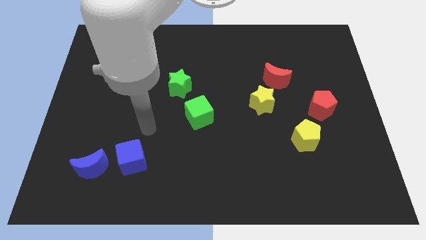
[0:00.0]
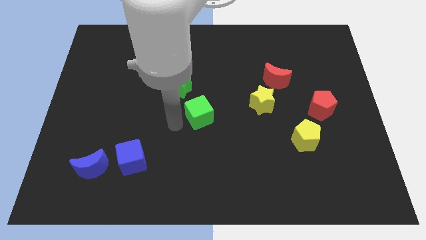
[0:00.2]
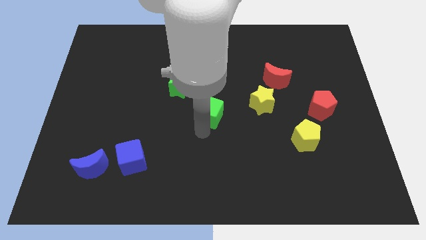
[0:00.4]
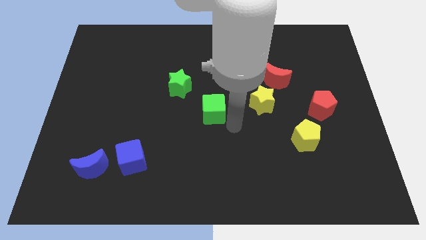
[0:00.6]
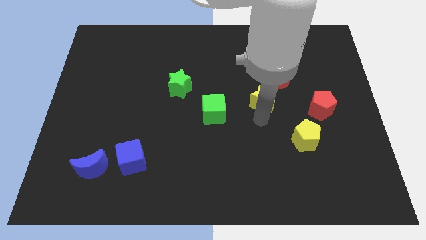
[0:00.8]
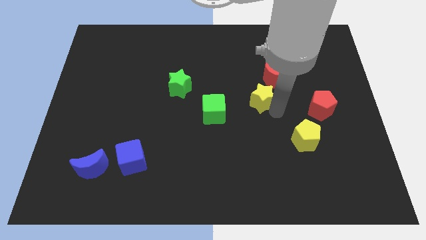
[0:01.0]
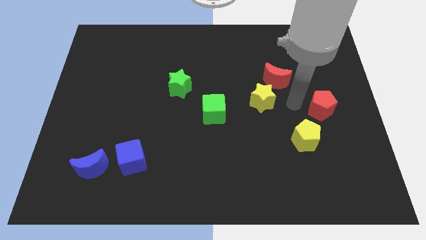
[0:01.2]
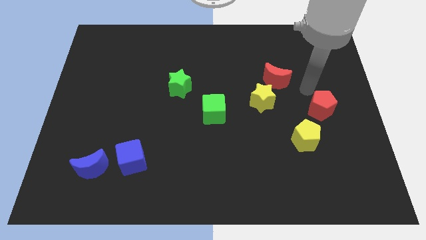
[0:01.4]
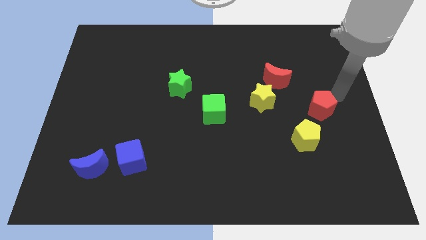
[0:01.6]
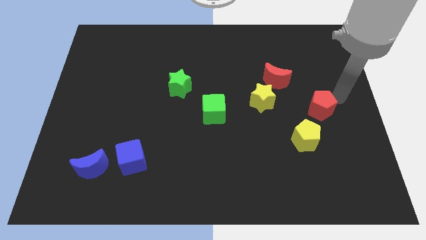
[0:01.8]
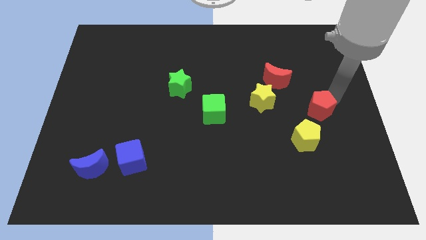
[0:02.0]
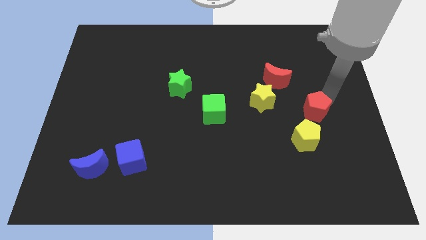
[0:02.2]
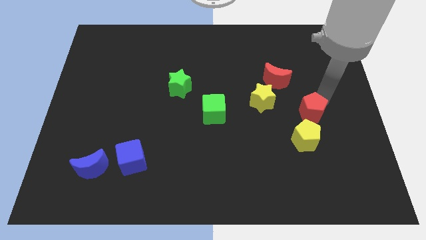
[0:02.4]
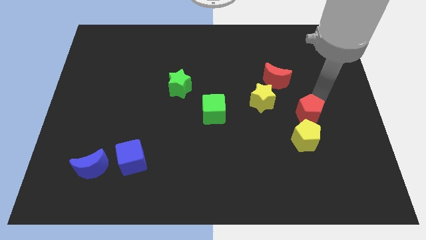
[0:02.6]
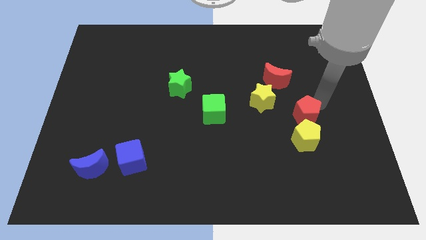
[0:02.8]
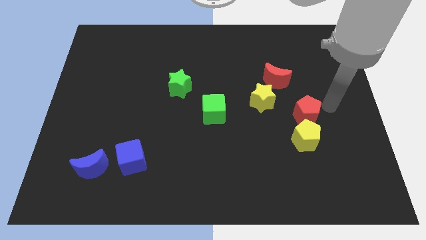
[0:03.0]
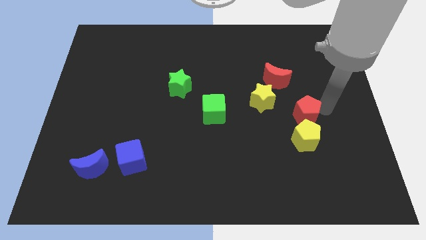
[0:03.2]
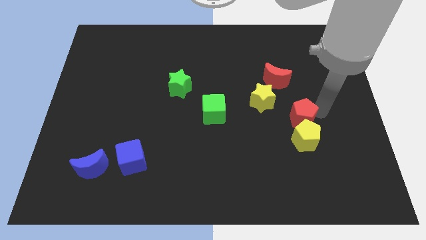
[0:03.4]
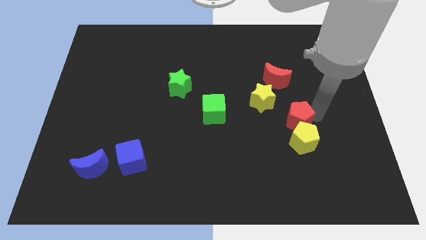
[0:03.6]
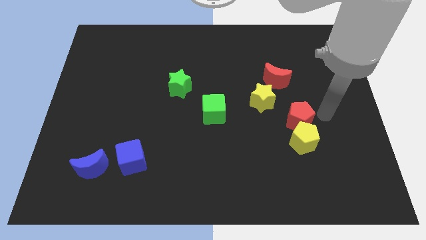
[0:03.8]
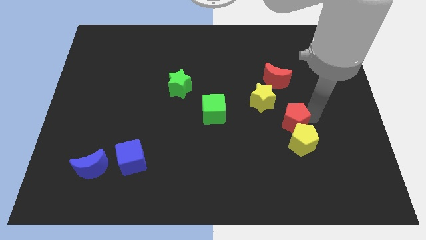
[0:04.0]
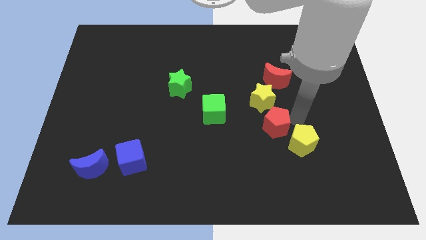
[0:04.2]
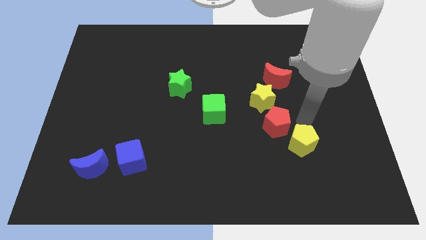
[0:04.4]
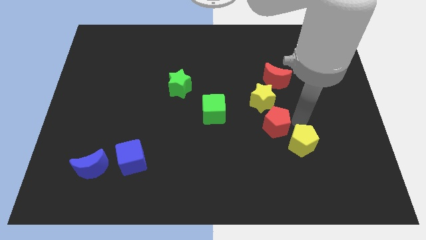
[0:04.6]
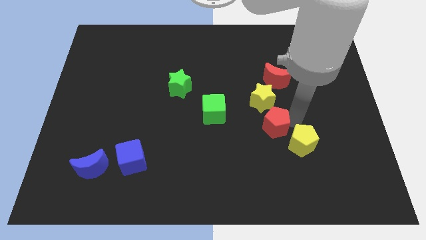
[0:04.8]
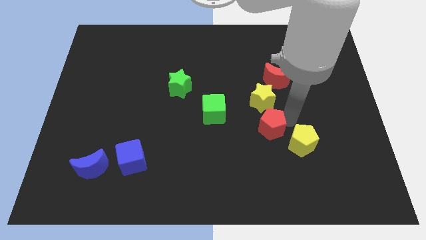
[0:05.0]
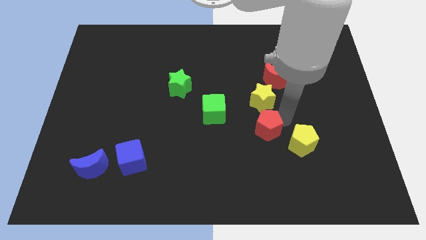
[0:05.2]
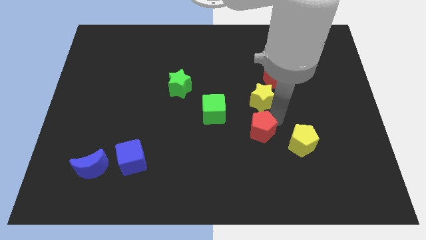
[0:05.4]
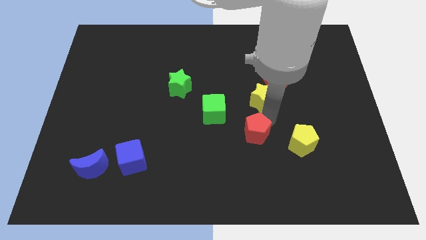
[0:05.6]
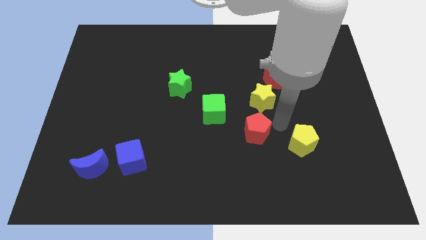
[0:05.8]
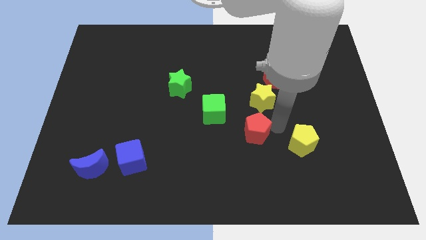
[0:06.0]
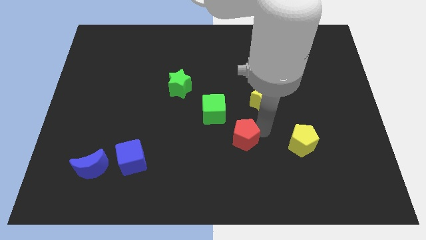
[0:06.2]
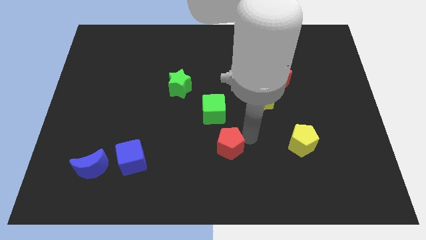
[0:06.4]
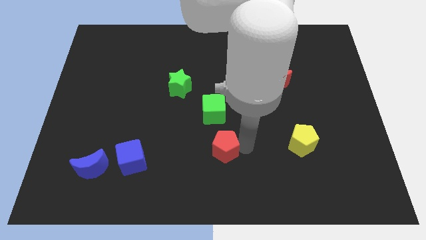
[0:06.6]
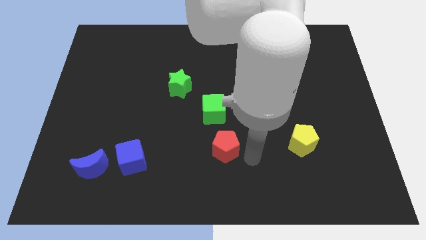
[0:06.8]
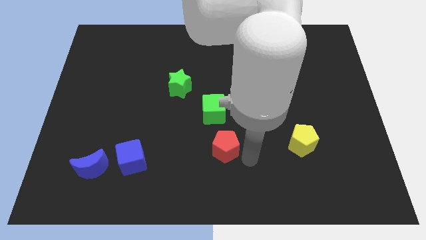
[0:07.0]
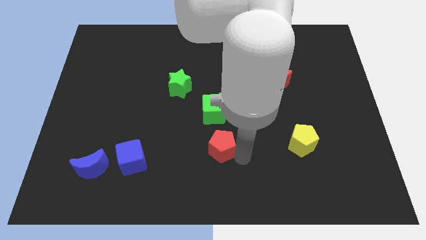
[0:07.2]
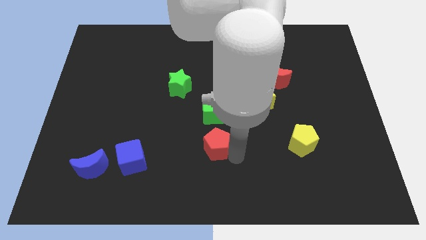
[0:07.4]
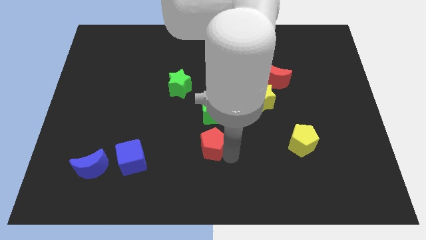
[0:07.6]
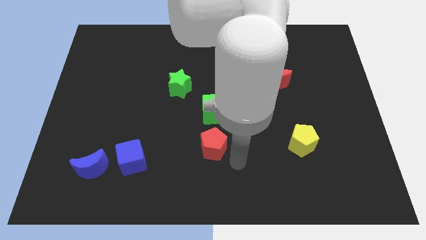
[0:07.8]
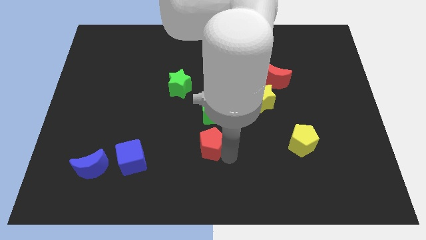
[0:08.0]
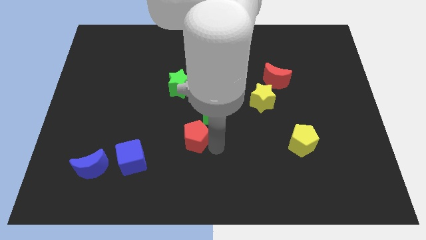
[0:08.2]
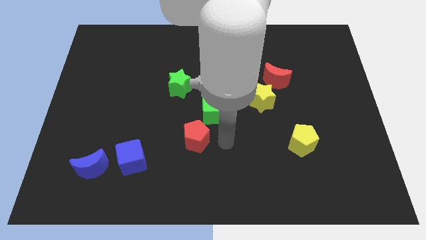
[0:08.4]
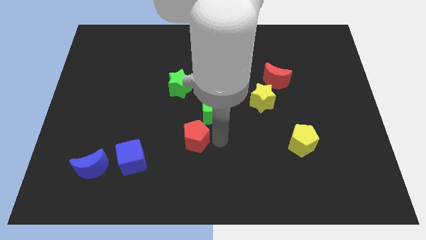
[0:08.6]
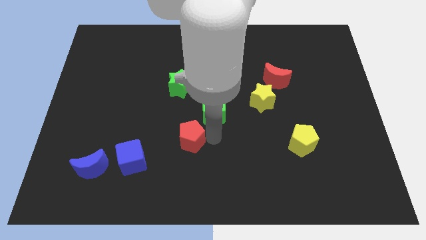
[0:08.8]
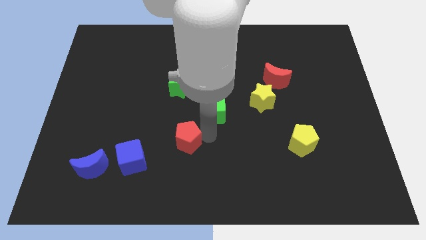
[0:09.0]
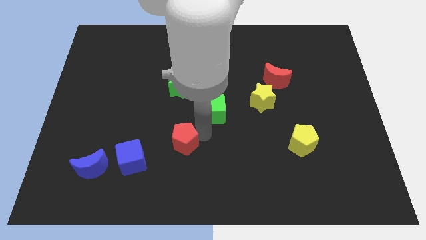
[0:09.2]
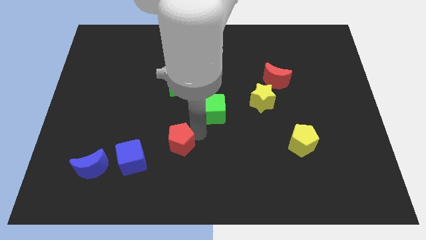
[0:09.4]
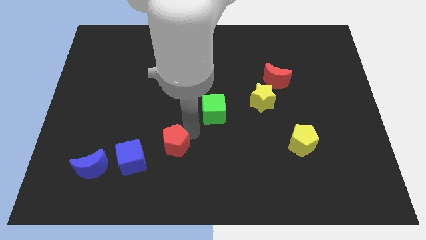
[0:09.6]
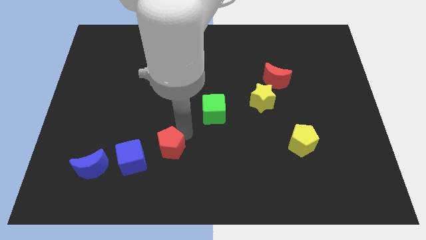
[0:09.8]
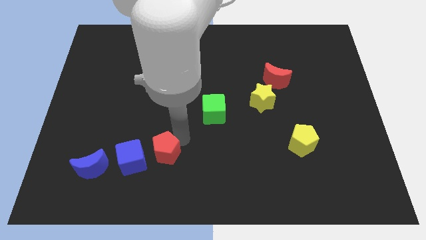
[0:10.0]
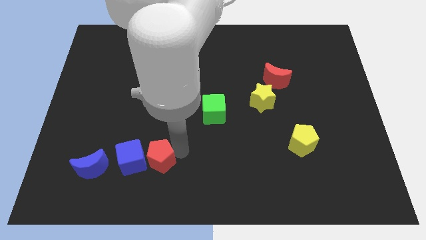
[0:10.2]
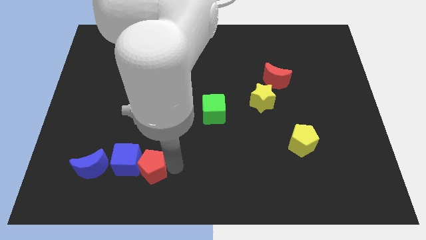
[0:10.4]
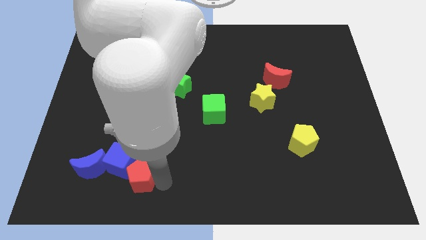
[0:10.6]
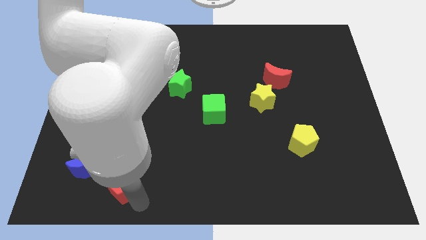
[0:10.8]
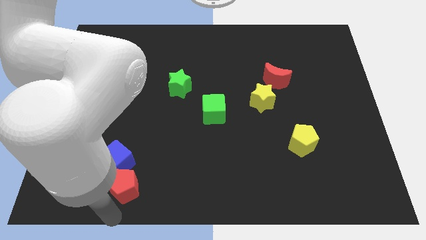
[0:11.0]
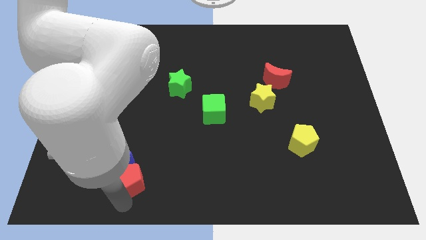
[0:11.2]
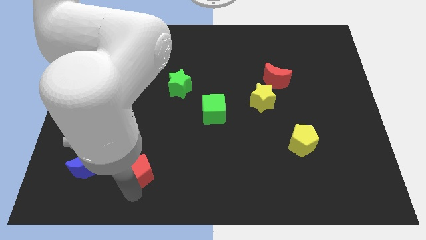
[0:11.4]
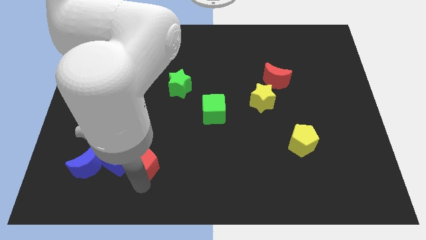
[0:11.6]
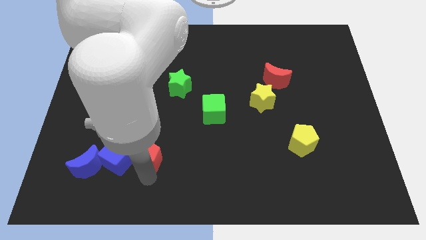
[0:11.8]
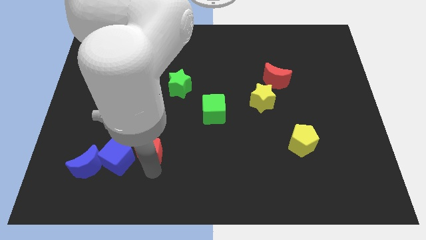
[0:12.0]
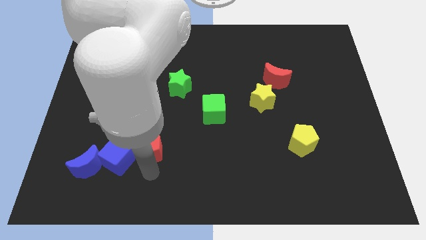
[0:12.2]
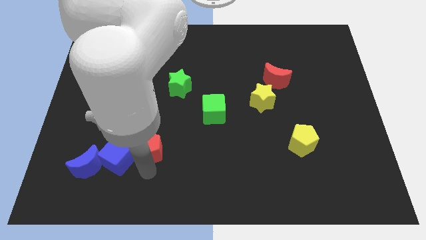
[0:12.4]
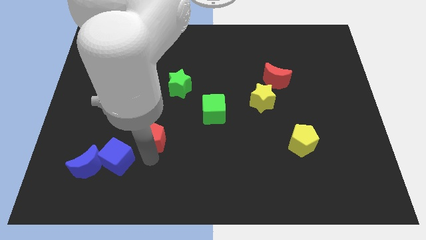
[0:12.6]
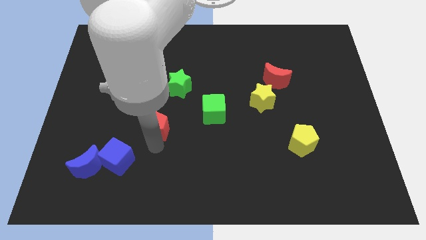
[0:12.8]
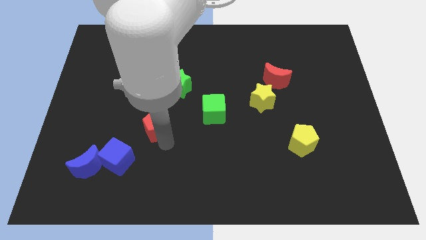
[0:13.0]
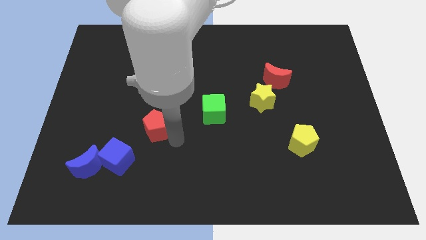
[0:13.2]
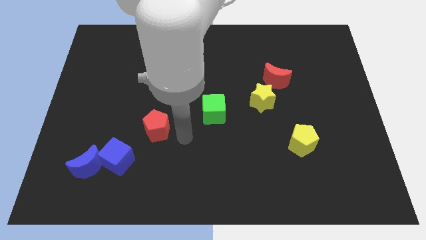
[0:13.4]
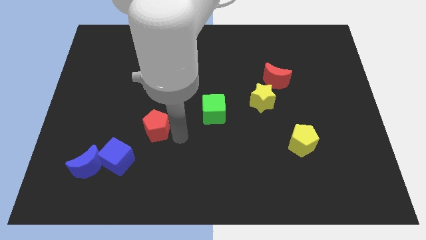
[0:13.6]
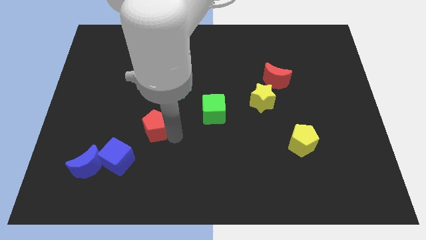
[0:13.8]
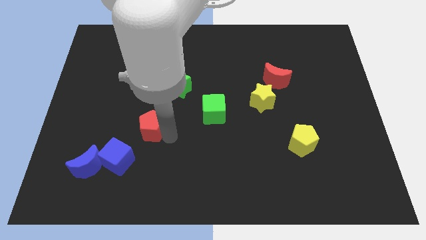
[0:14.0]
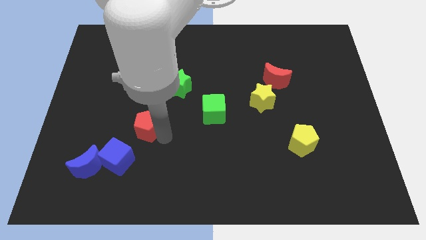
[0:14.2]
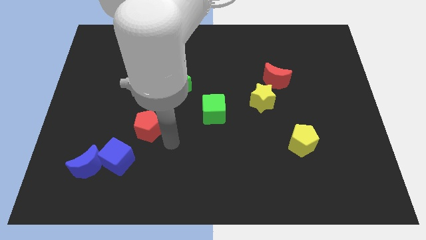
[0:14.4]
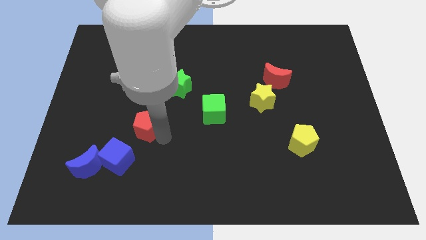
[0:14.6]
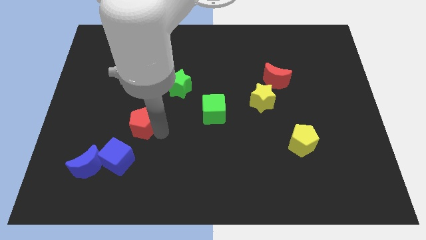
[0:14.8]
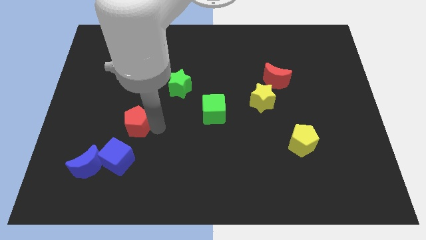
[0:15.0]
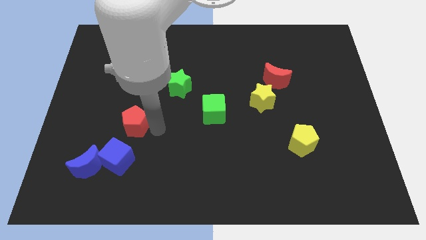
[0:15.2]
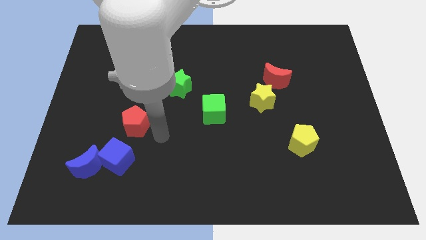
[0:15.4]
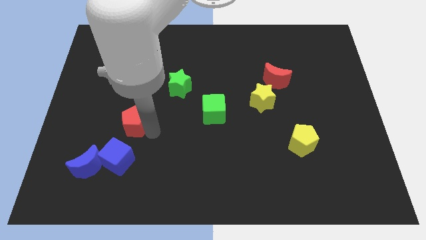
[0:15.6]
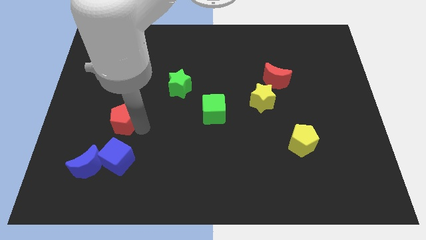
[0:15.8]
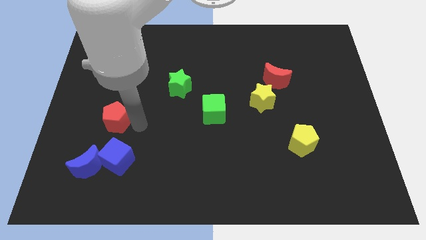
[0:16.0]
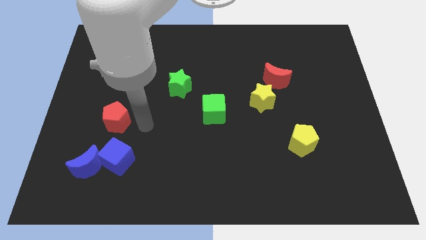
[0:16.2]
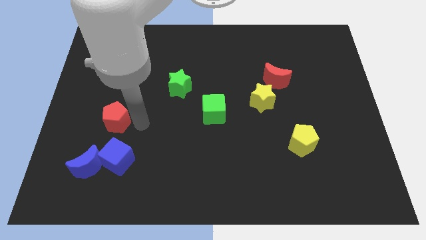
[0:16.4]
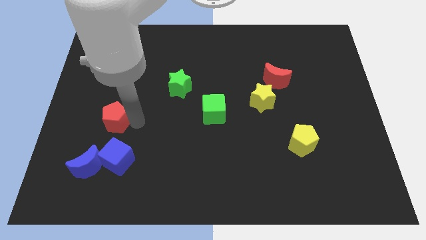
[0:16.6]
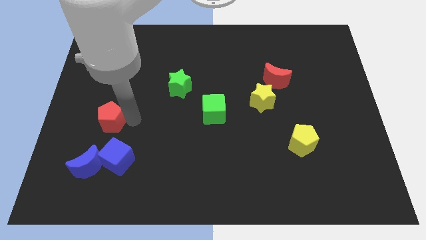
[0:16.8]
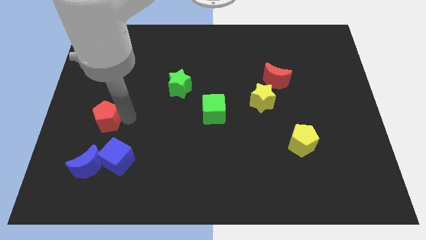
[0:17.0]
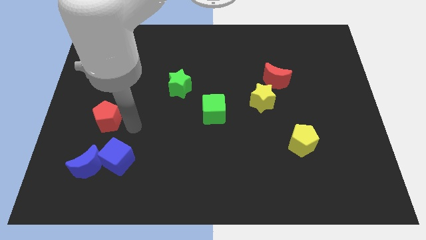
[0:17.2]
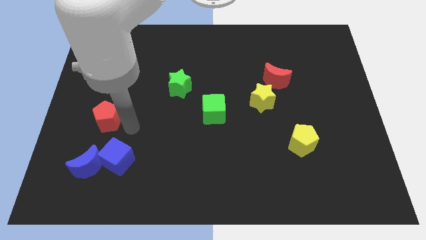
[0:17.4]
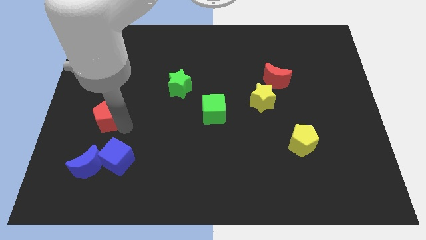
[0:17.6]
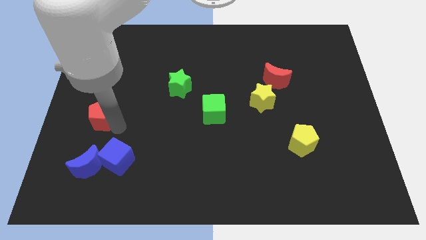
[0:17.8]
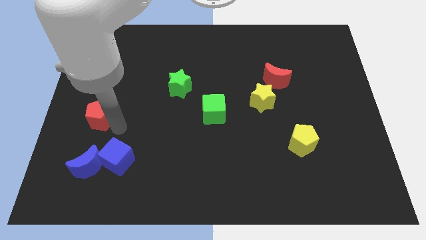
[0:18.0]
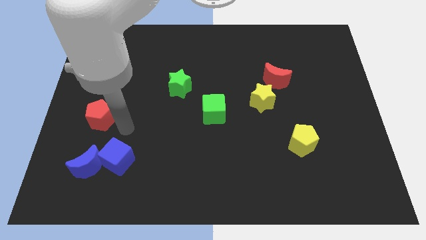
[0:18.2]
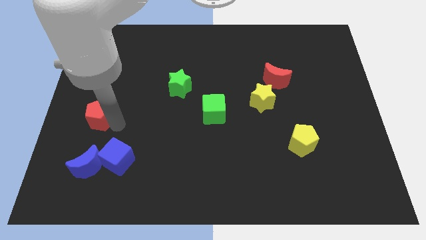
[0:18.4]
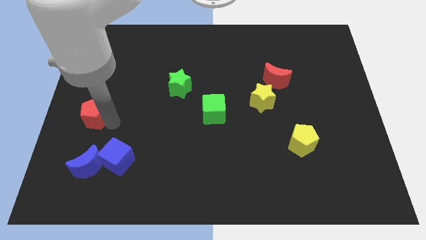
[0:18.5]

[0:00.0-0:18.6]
slide the red pentagon to the left side
